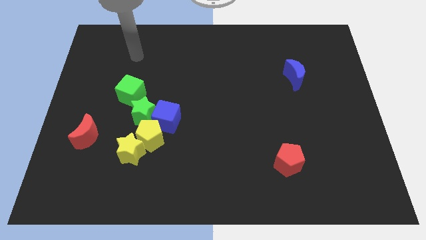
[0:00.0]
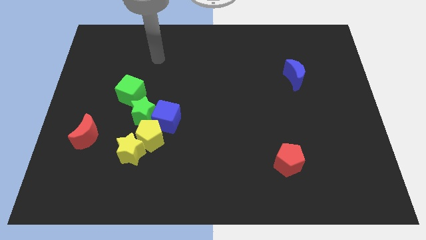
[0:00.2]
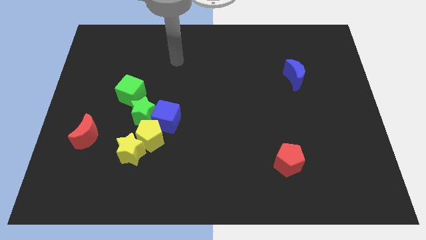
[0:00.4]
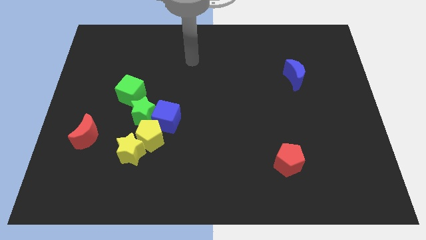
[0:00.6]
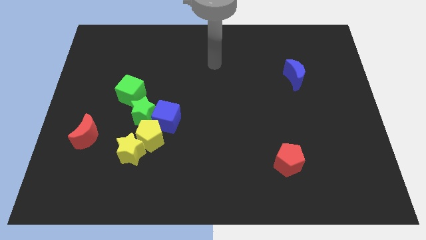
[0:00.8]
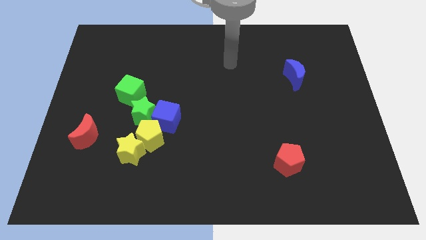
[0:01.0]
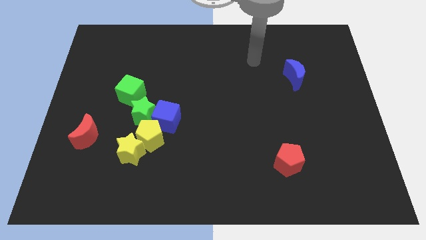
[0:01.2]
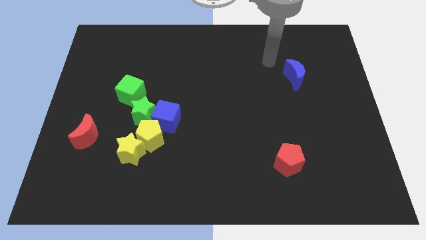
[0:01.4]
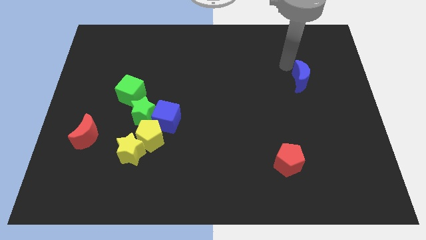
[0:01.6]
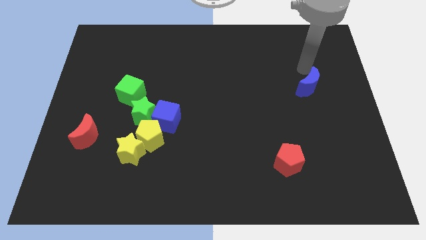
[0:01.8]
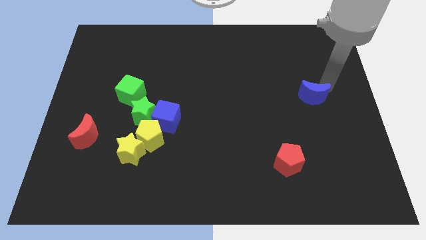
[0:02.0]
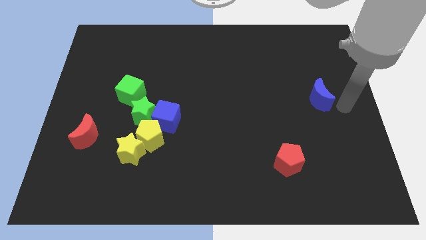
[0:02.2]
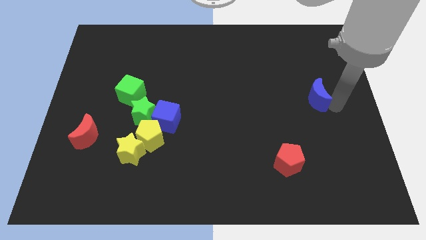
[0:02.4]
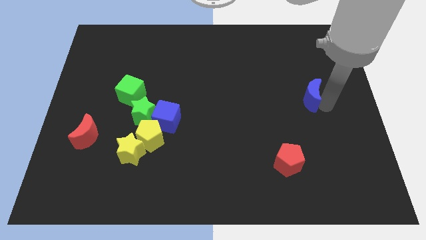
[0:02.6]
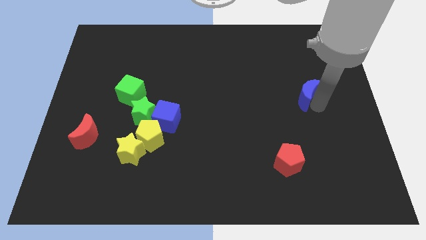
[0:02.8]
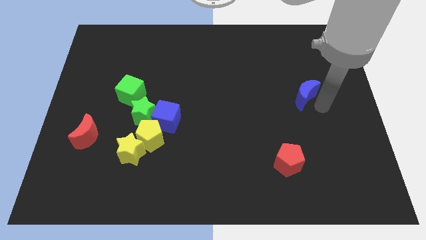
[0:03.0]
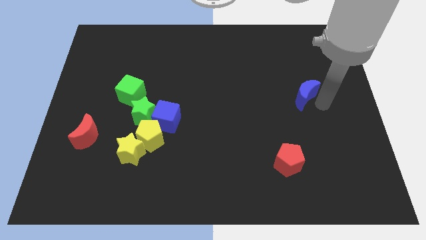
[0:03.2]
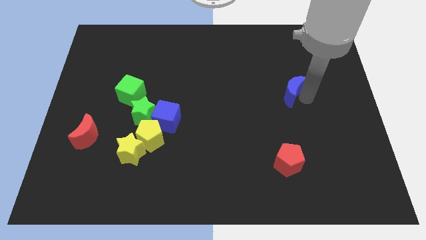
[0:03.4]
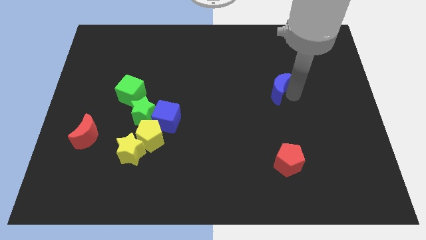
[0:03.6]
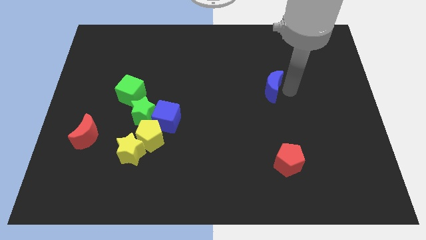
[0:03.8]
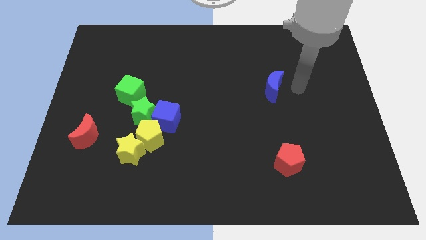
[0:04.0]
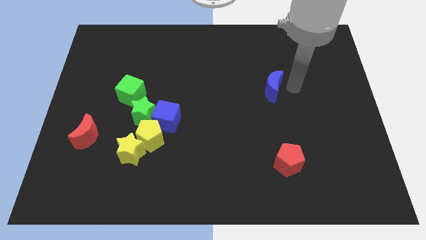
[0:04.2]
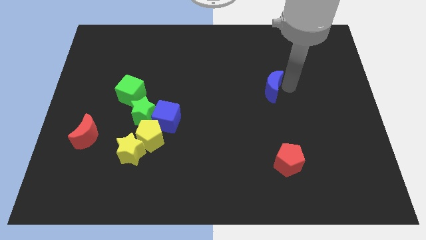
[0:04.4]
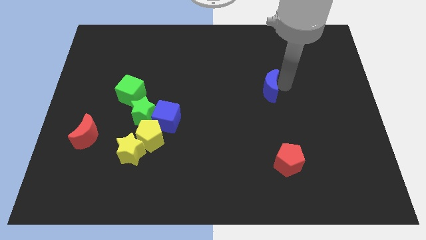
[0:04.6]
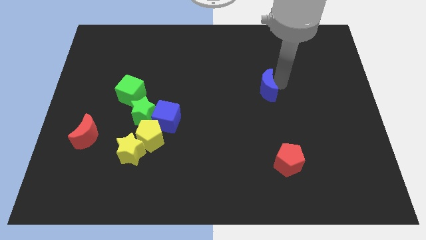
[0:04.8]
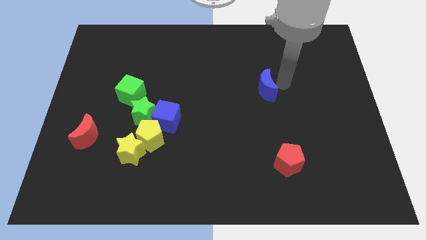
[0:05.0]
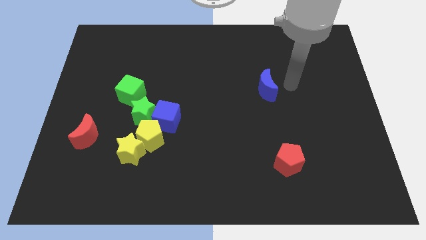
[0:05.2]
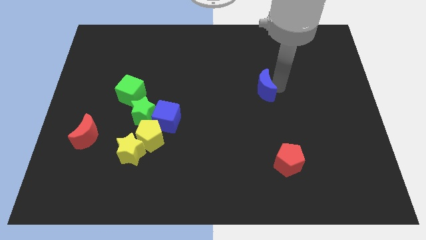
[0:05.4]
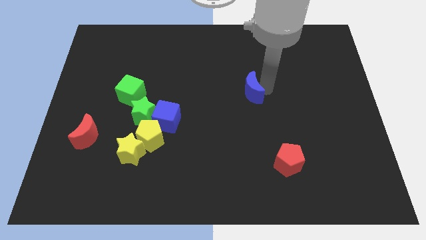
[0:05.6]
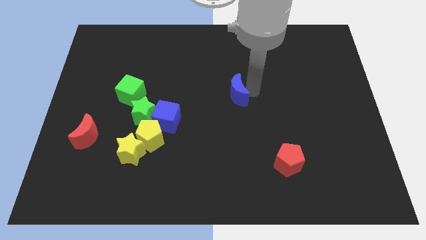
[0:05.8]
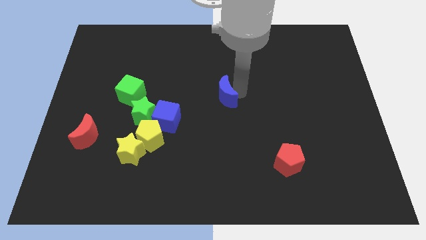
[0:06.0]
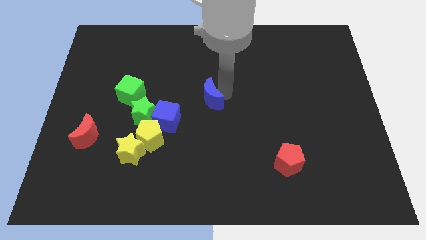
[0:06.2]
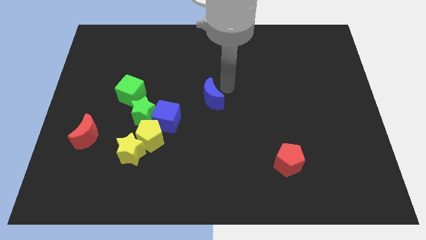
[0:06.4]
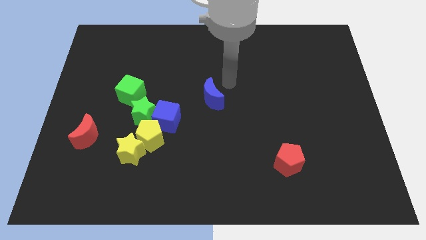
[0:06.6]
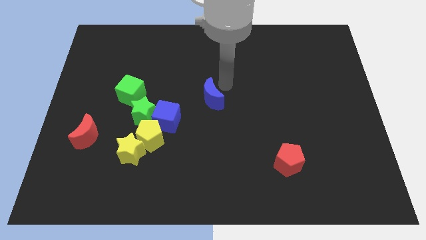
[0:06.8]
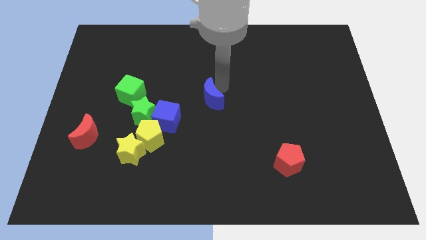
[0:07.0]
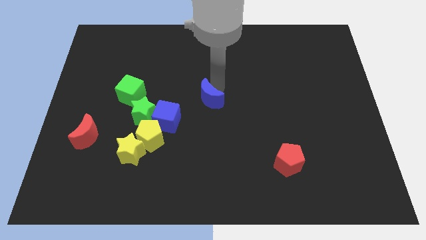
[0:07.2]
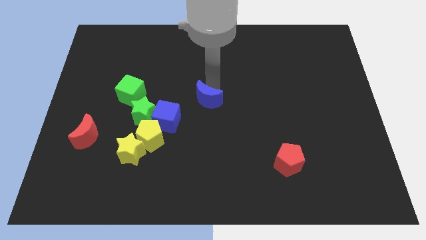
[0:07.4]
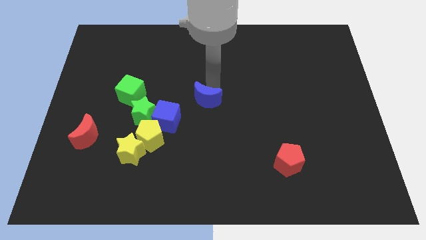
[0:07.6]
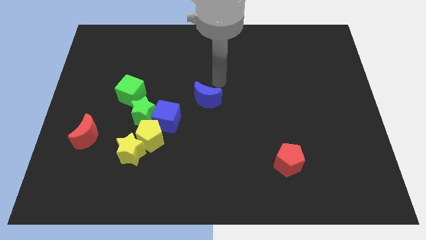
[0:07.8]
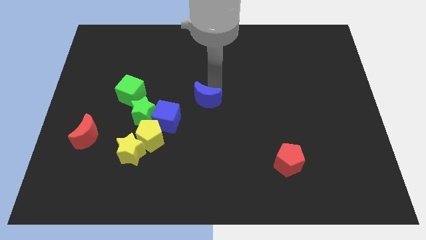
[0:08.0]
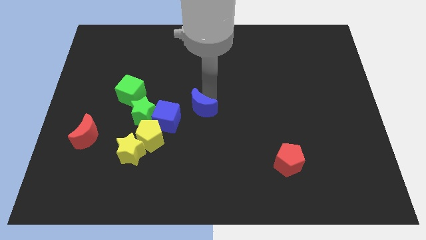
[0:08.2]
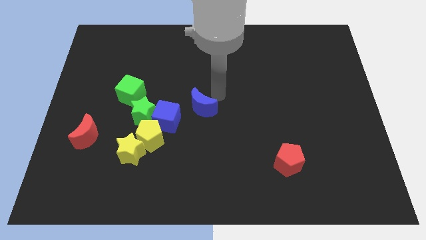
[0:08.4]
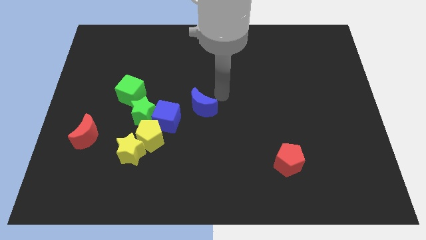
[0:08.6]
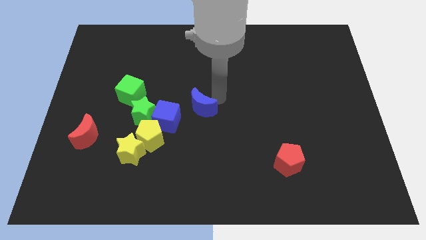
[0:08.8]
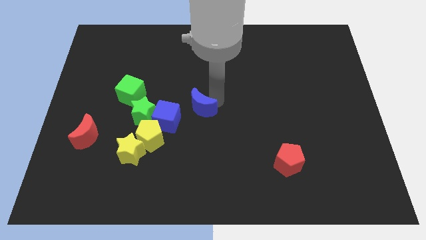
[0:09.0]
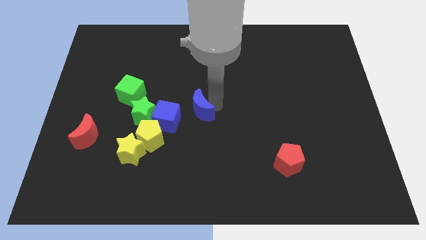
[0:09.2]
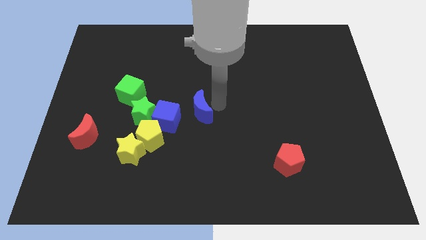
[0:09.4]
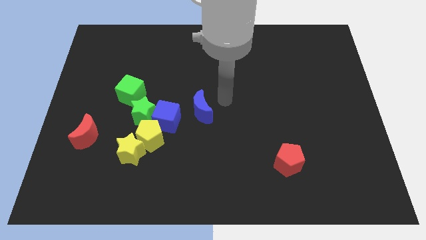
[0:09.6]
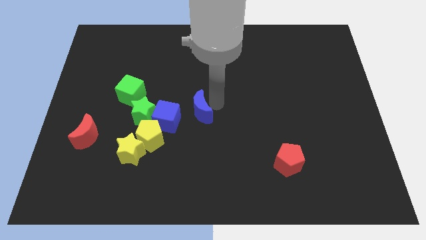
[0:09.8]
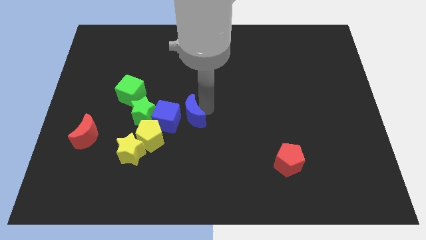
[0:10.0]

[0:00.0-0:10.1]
slide the blue moon towards the blue cube

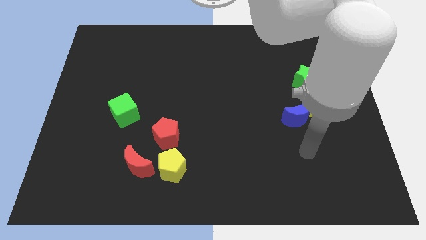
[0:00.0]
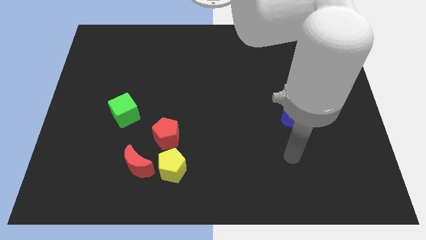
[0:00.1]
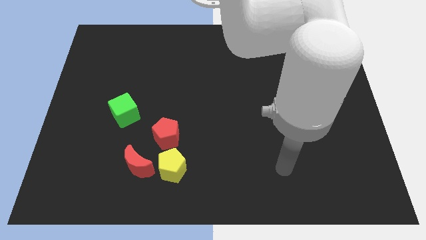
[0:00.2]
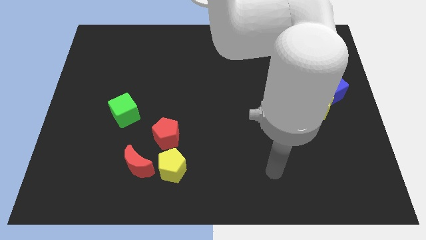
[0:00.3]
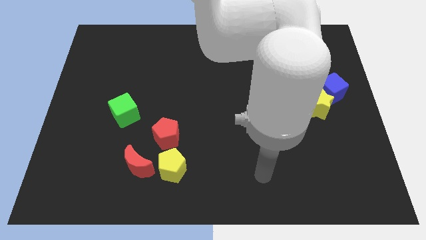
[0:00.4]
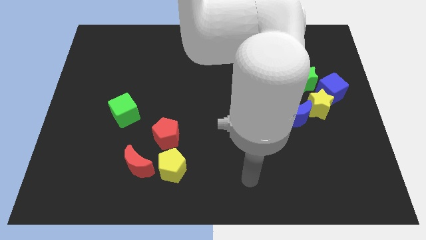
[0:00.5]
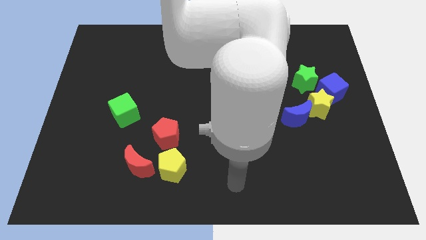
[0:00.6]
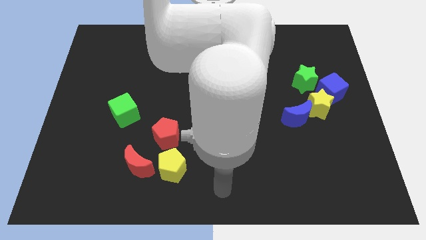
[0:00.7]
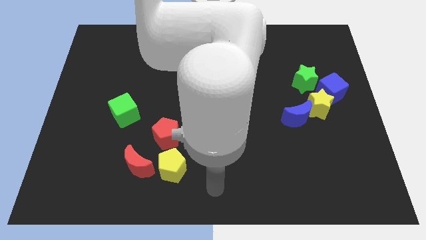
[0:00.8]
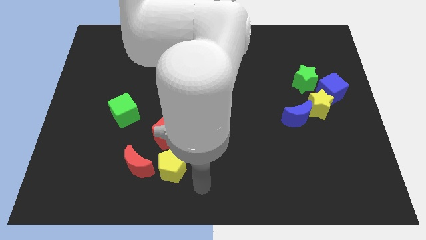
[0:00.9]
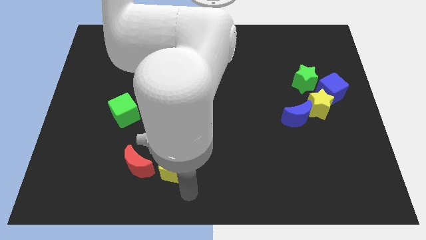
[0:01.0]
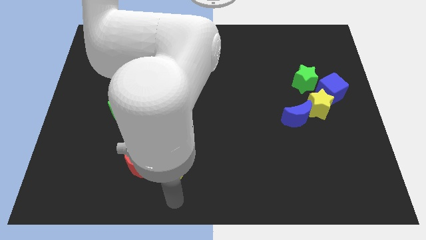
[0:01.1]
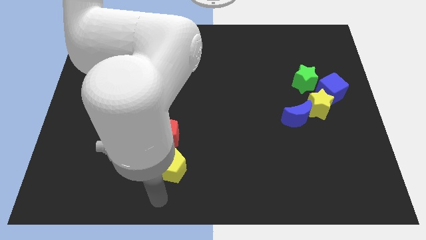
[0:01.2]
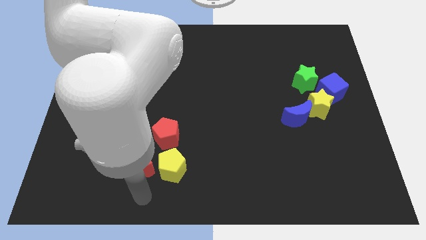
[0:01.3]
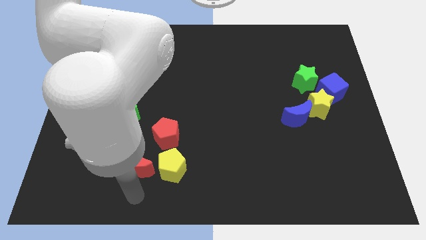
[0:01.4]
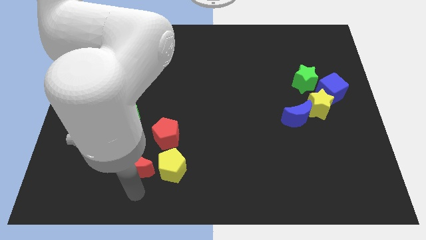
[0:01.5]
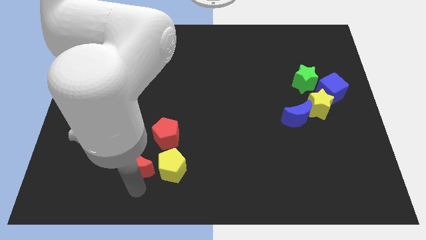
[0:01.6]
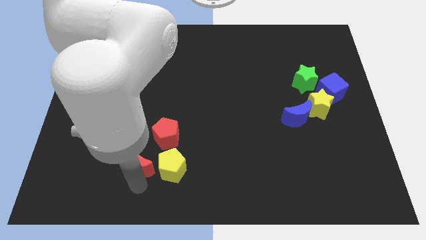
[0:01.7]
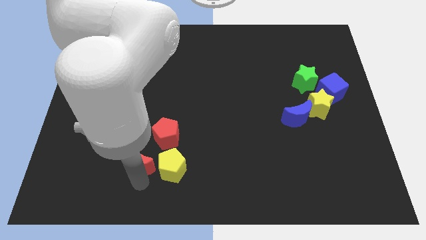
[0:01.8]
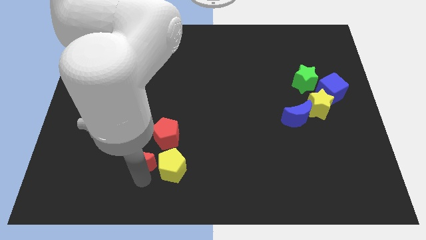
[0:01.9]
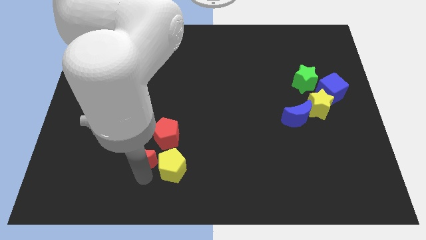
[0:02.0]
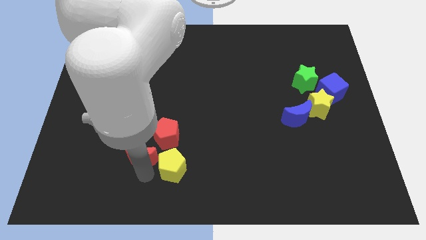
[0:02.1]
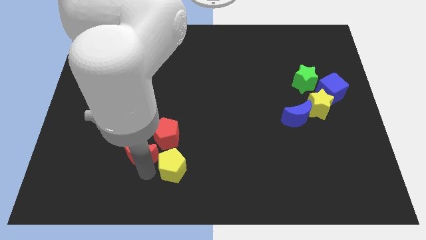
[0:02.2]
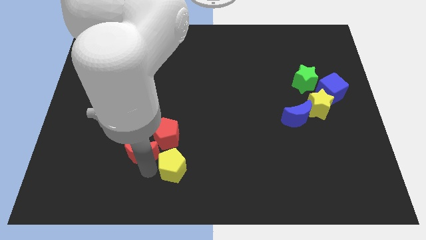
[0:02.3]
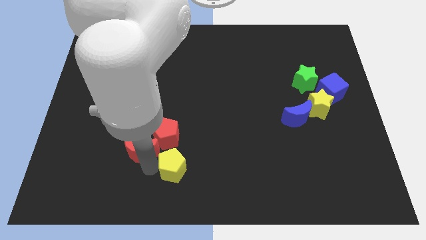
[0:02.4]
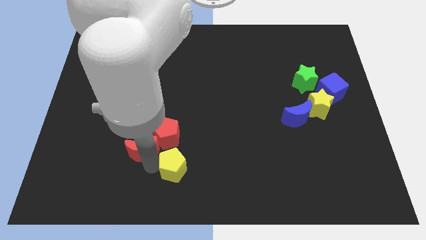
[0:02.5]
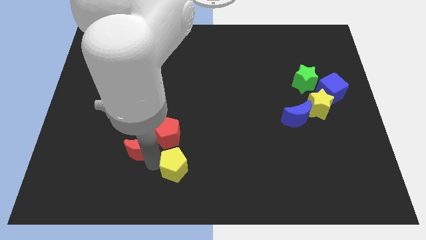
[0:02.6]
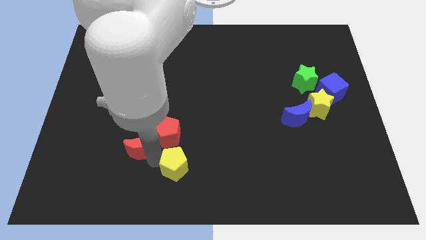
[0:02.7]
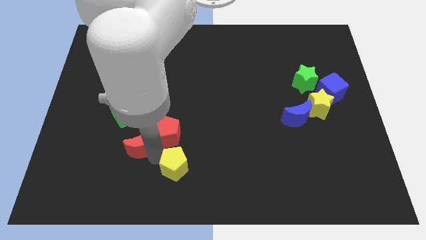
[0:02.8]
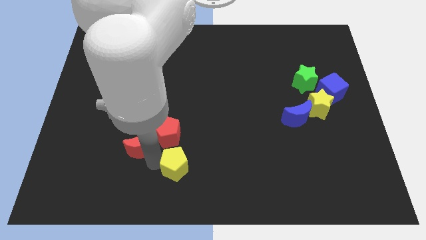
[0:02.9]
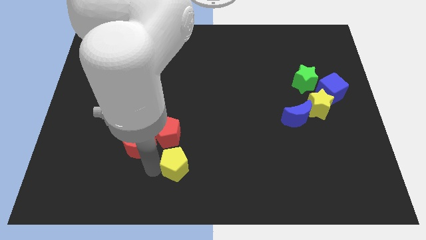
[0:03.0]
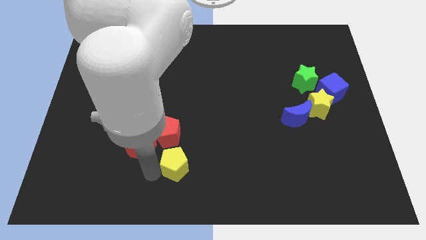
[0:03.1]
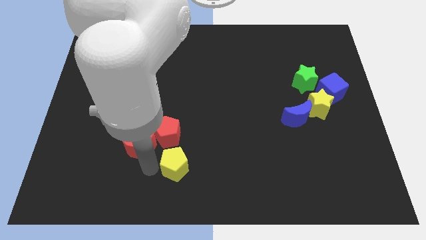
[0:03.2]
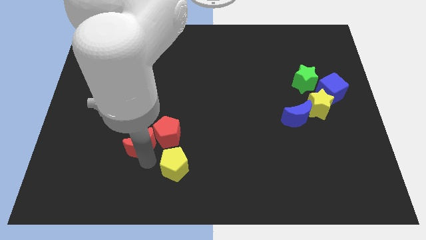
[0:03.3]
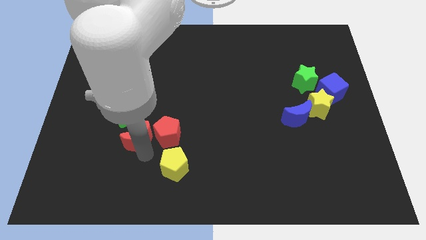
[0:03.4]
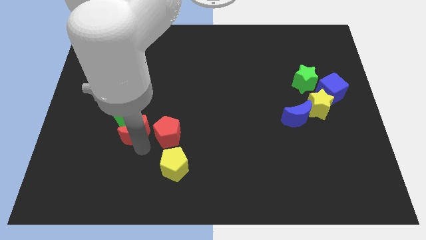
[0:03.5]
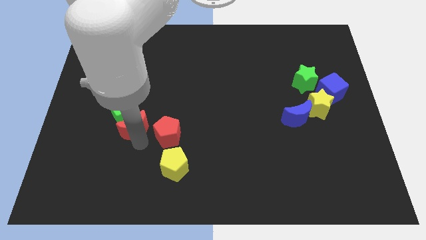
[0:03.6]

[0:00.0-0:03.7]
push the red moon close to the green cube
